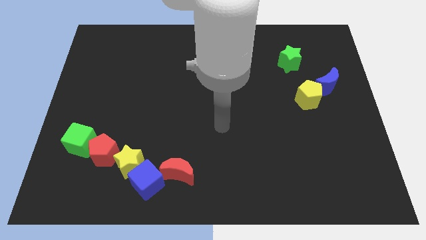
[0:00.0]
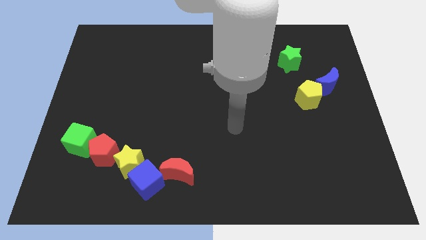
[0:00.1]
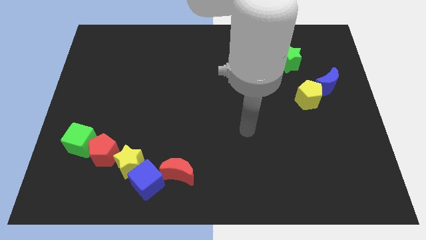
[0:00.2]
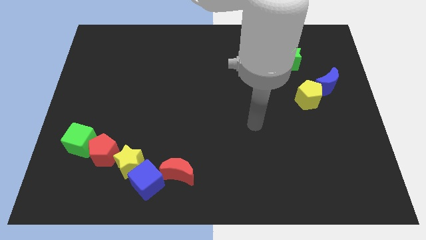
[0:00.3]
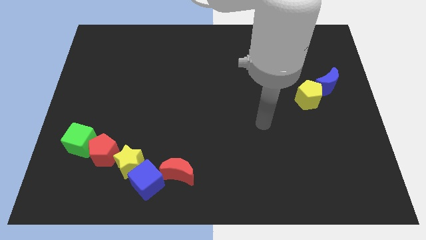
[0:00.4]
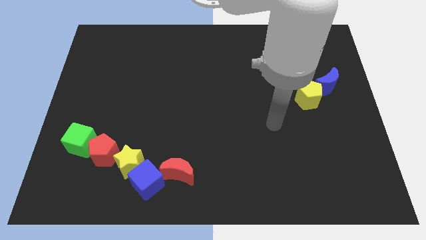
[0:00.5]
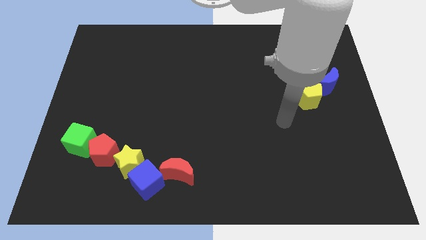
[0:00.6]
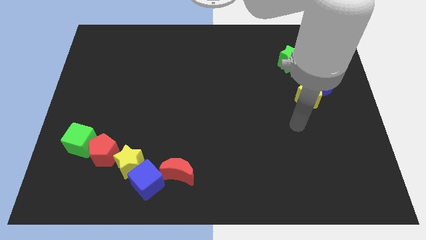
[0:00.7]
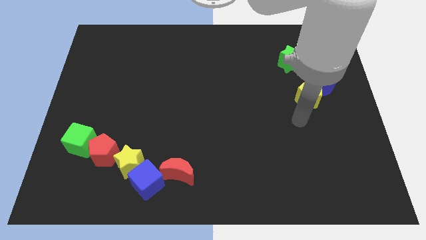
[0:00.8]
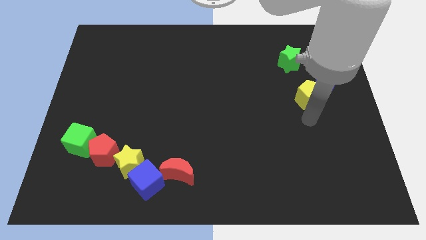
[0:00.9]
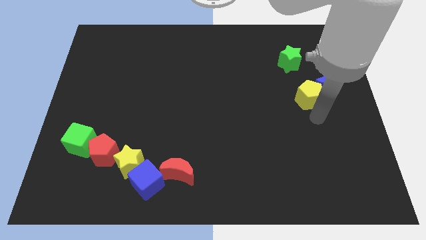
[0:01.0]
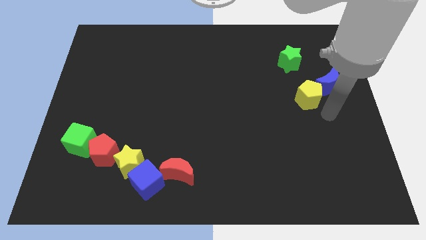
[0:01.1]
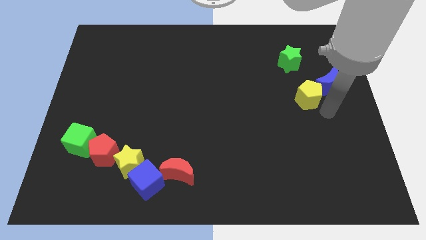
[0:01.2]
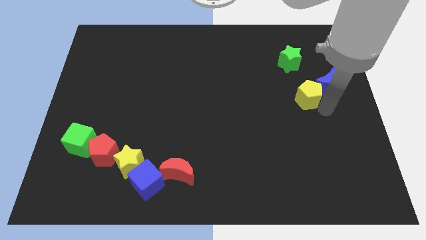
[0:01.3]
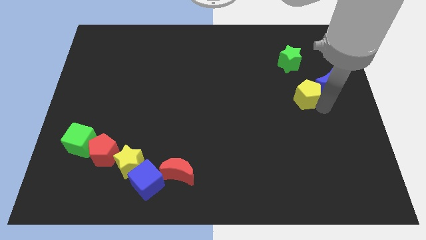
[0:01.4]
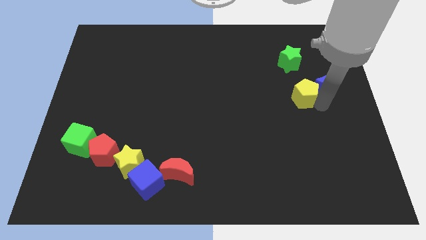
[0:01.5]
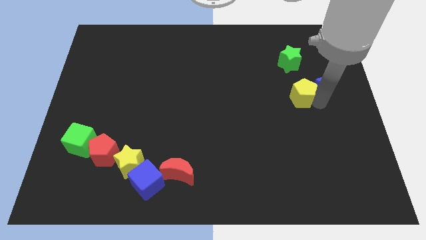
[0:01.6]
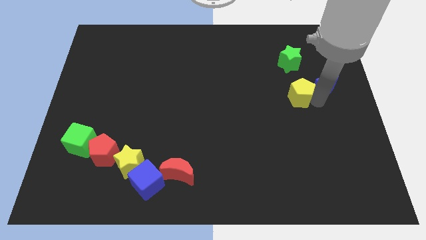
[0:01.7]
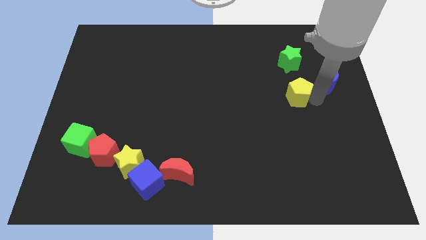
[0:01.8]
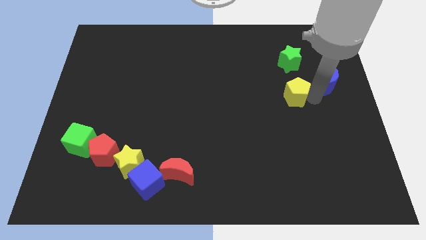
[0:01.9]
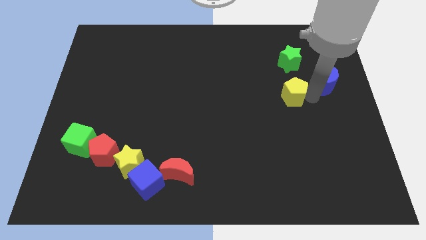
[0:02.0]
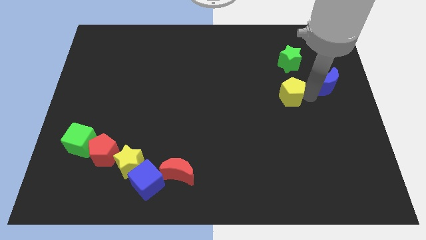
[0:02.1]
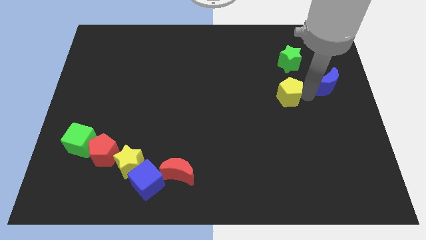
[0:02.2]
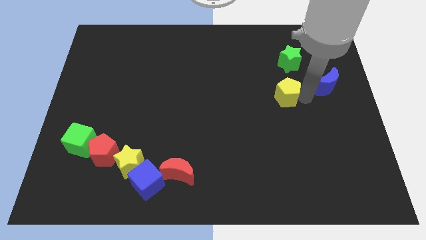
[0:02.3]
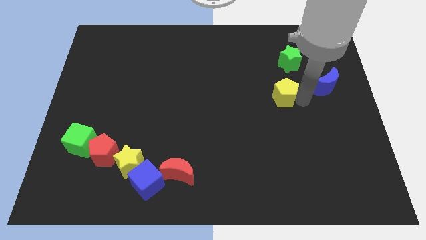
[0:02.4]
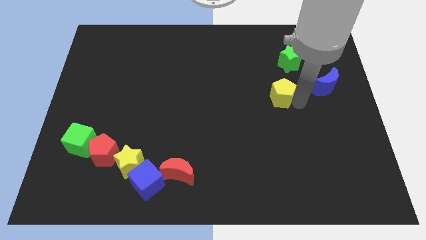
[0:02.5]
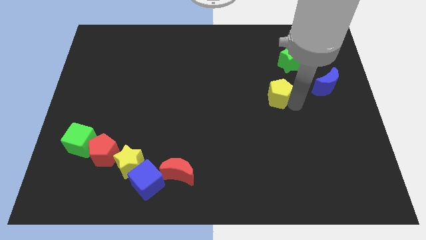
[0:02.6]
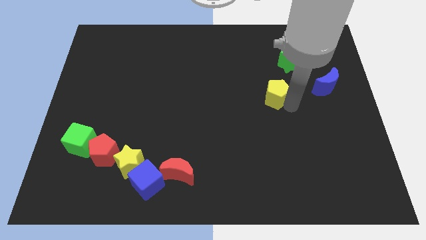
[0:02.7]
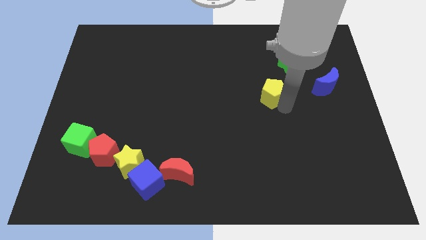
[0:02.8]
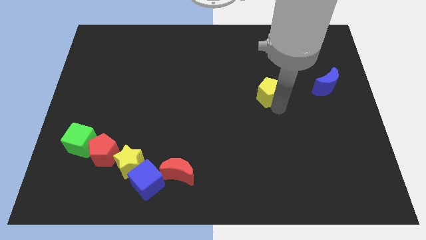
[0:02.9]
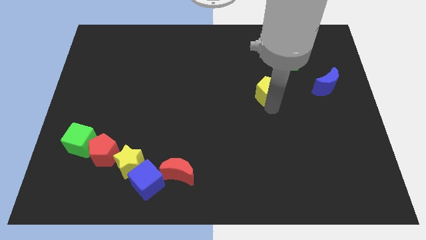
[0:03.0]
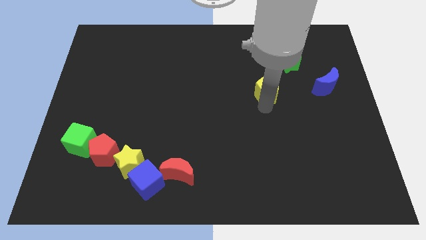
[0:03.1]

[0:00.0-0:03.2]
move the yellow pentagon up and to the left a bit

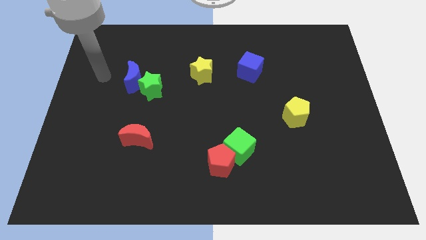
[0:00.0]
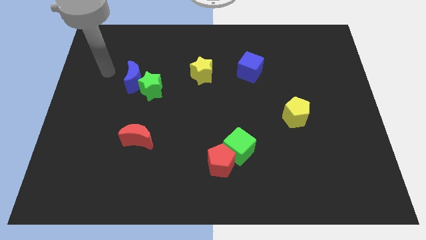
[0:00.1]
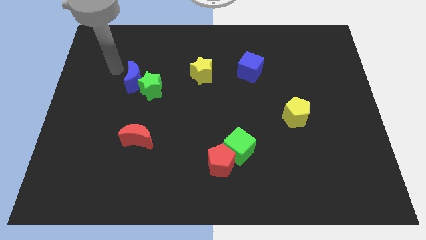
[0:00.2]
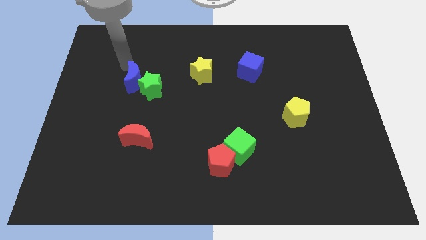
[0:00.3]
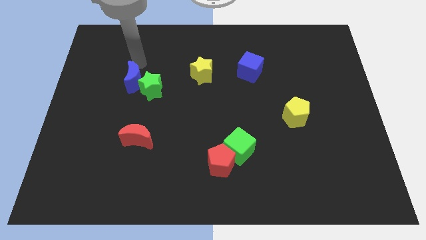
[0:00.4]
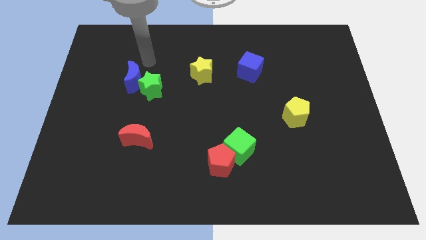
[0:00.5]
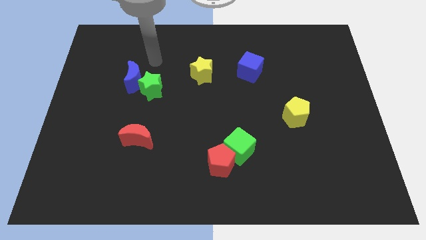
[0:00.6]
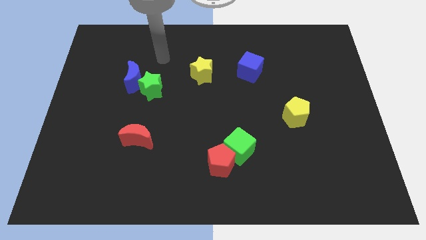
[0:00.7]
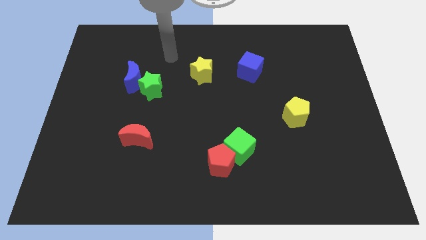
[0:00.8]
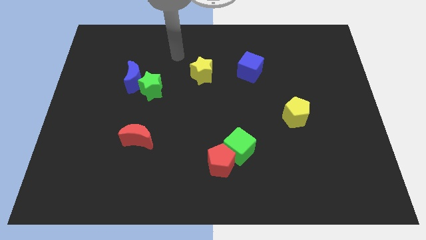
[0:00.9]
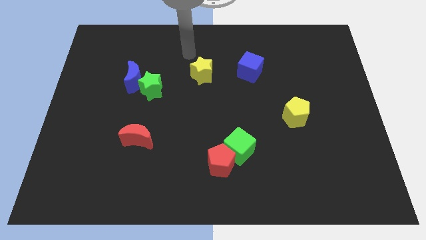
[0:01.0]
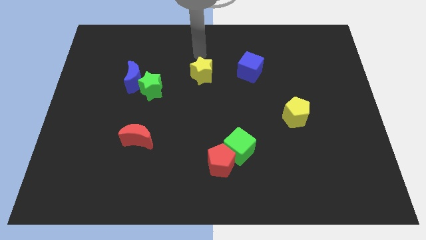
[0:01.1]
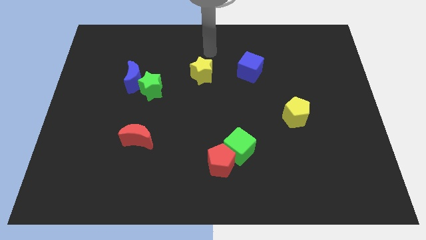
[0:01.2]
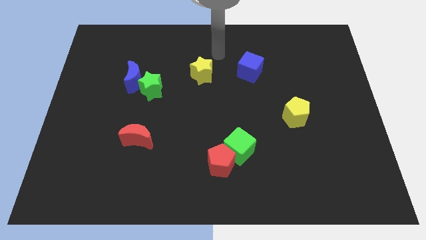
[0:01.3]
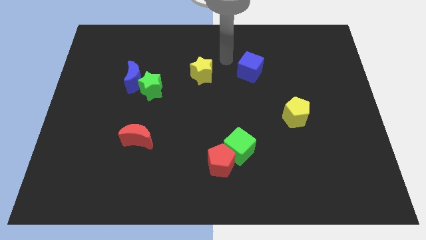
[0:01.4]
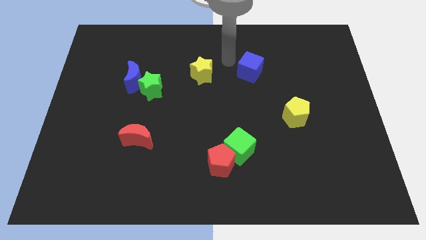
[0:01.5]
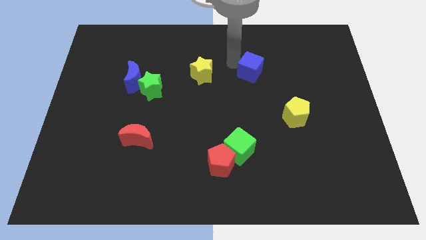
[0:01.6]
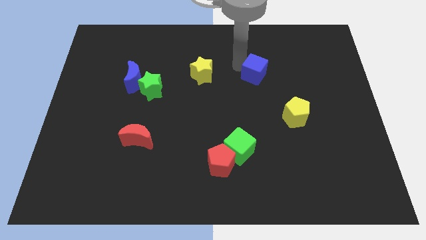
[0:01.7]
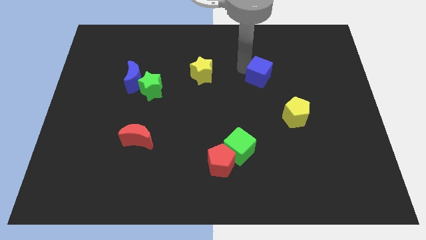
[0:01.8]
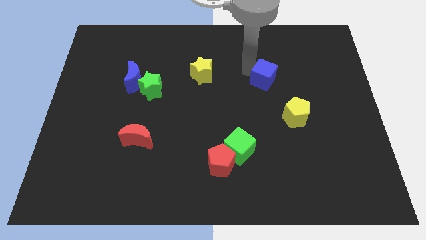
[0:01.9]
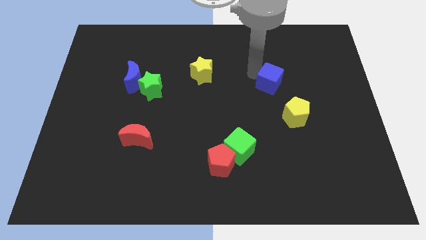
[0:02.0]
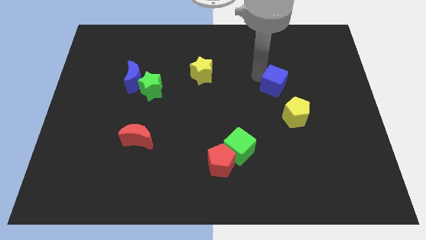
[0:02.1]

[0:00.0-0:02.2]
move the blue cube diagonally down and to the right somewhat

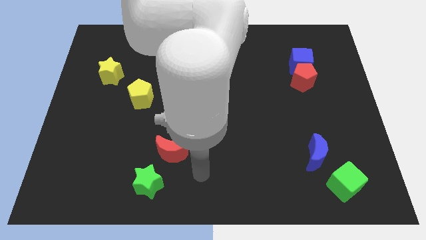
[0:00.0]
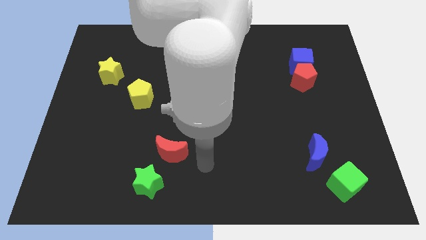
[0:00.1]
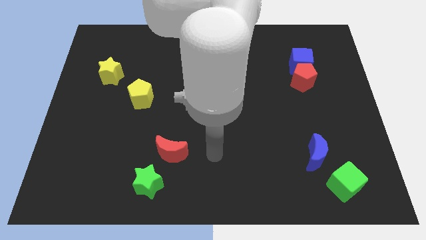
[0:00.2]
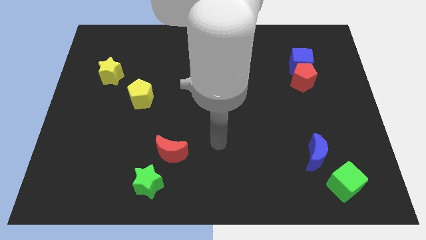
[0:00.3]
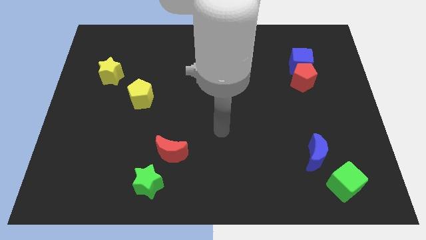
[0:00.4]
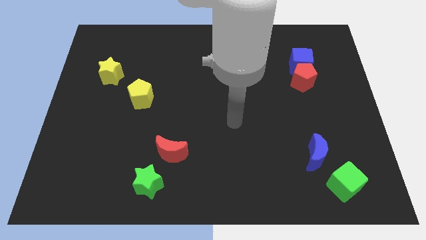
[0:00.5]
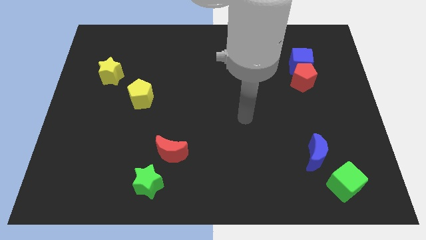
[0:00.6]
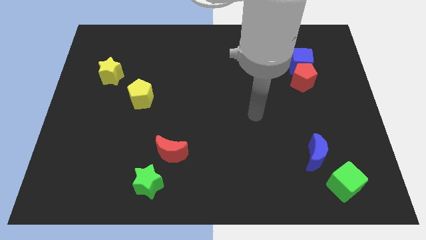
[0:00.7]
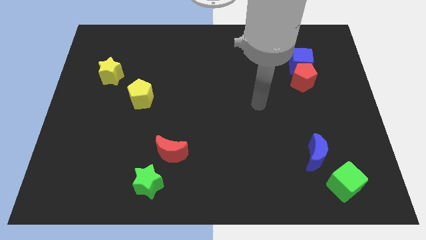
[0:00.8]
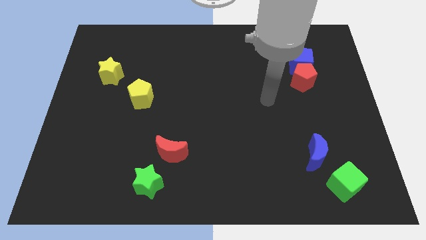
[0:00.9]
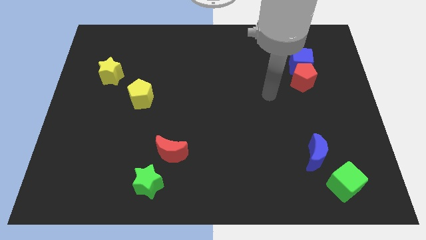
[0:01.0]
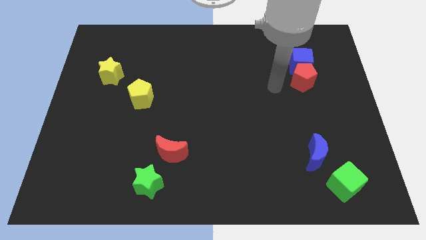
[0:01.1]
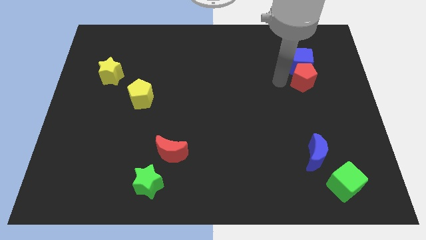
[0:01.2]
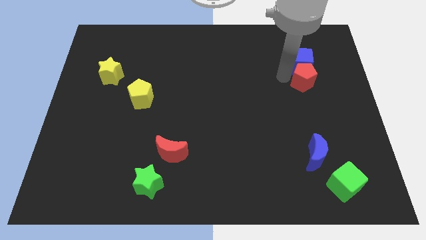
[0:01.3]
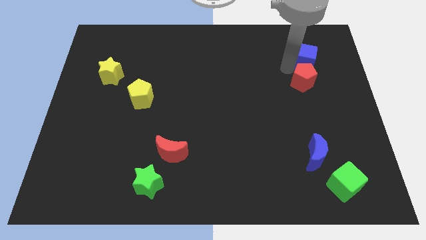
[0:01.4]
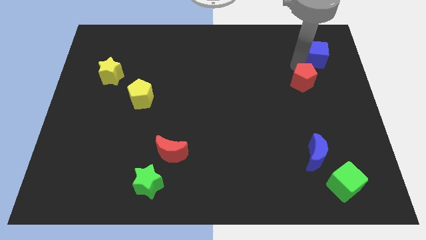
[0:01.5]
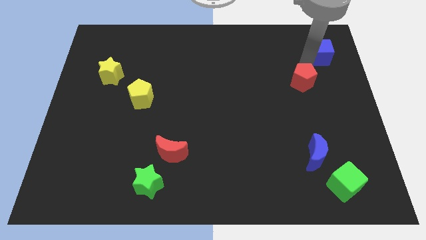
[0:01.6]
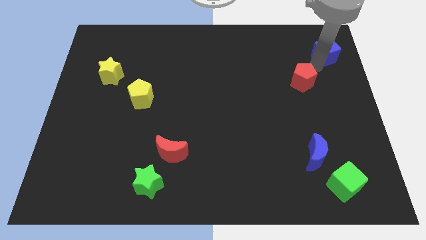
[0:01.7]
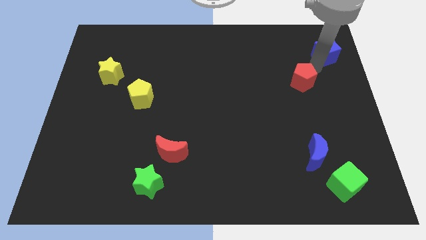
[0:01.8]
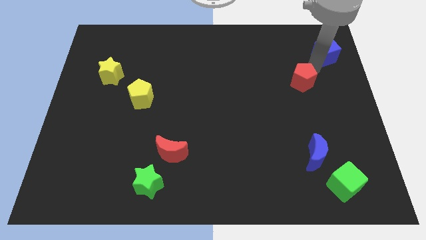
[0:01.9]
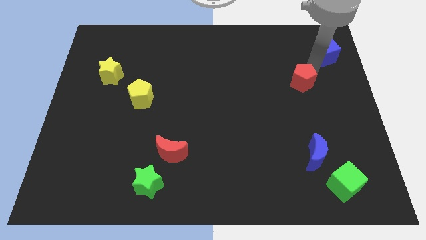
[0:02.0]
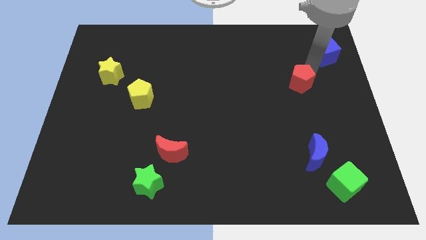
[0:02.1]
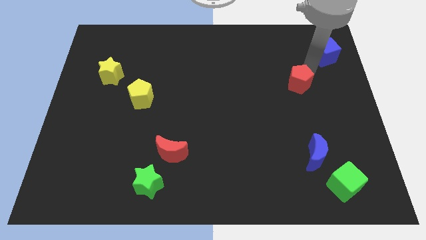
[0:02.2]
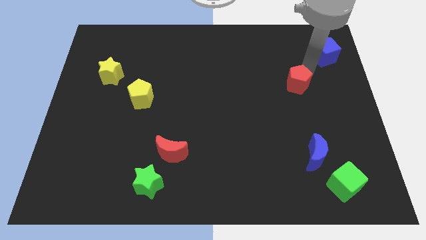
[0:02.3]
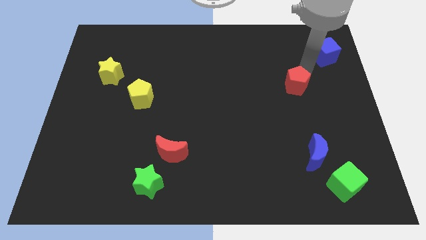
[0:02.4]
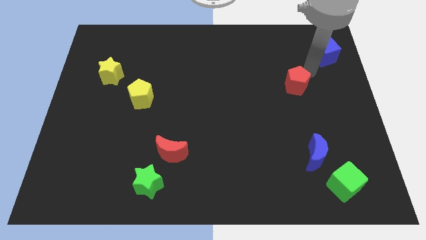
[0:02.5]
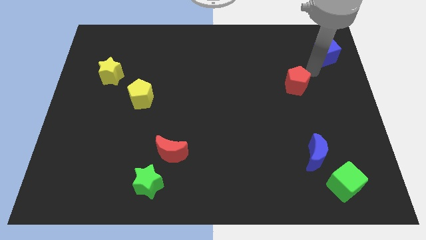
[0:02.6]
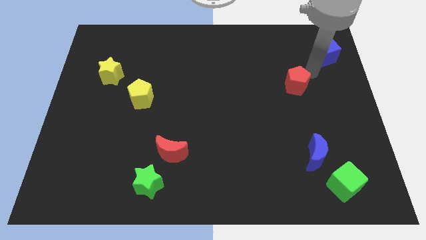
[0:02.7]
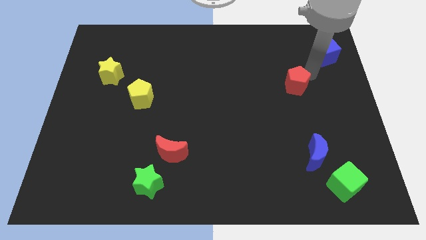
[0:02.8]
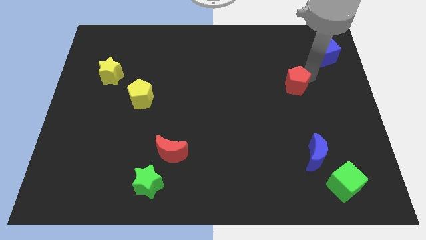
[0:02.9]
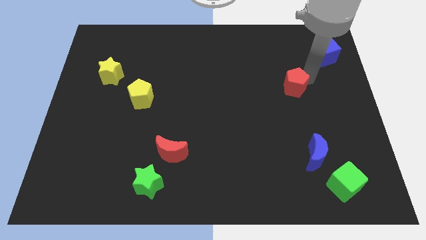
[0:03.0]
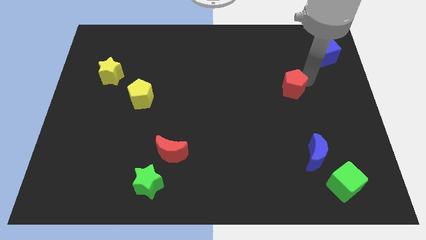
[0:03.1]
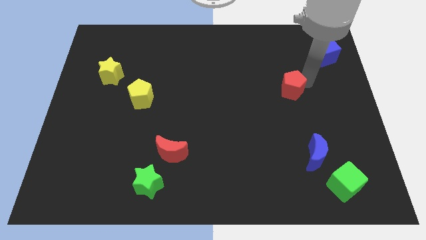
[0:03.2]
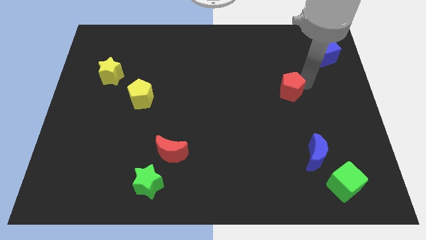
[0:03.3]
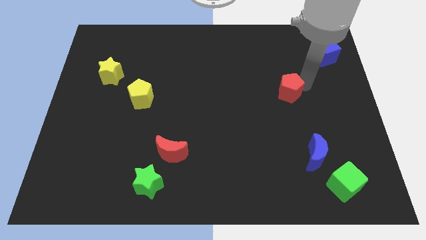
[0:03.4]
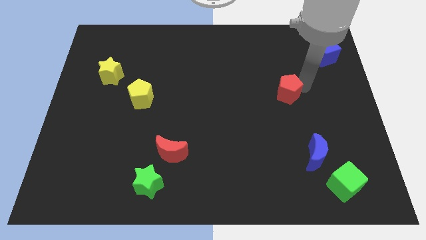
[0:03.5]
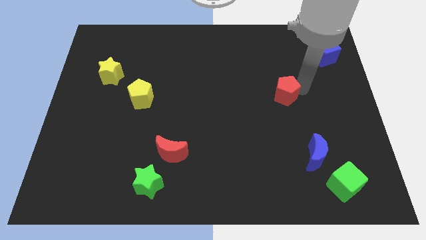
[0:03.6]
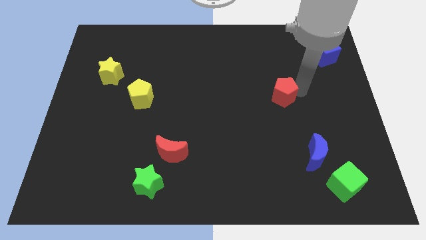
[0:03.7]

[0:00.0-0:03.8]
slide the red pentagon a little downwards and left
